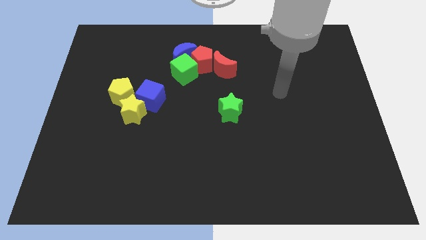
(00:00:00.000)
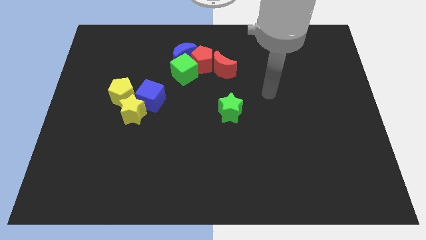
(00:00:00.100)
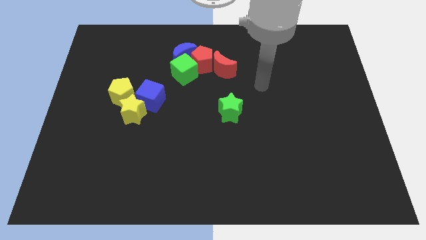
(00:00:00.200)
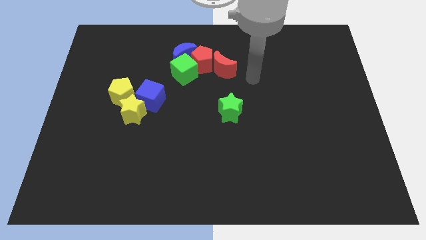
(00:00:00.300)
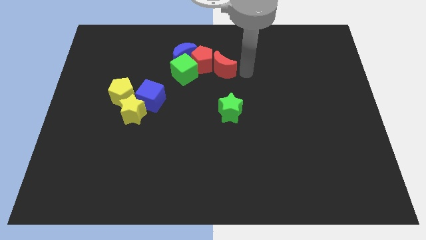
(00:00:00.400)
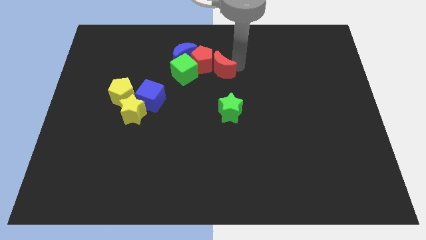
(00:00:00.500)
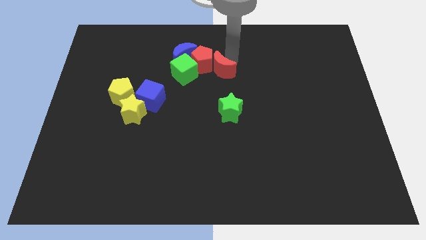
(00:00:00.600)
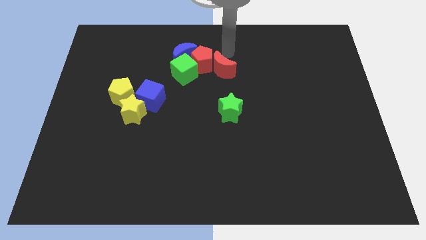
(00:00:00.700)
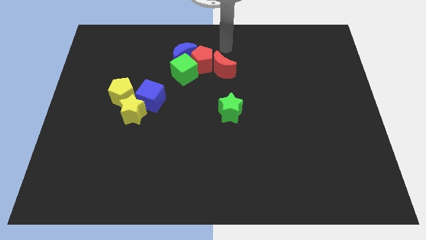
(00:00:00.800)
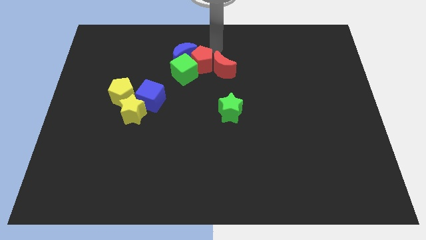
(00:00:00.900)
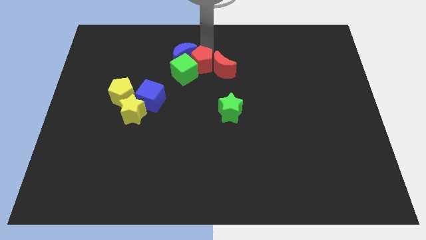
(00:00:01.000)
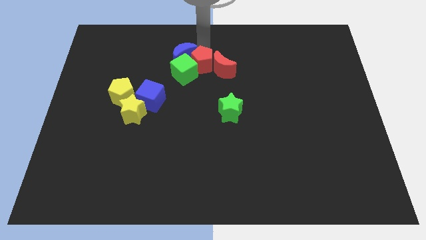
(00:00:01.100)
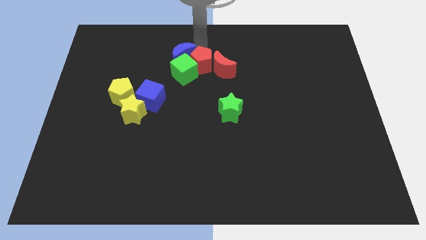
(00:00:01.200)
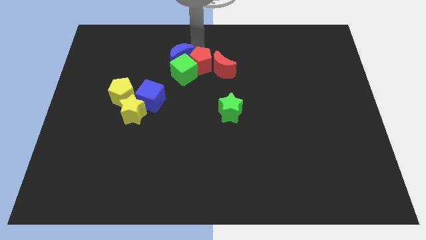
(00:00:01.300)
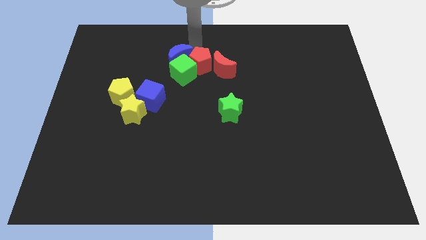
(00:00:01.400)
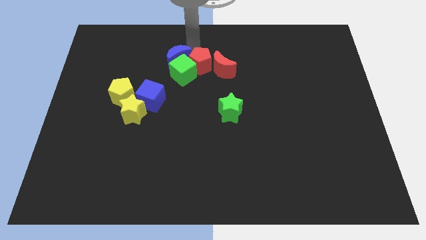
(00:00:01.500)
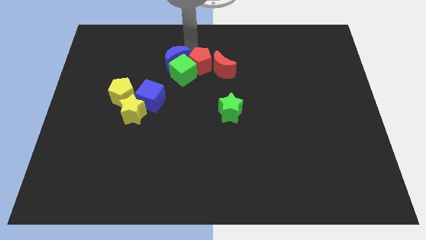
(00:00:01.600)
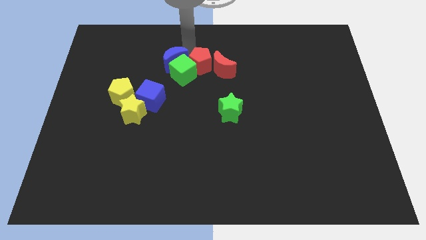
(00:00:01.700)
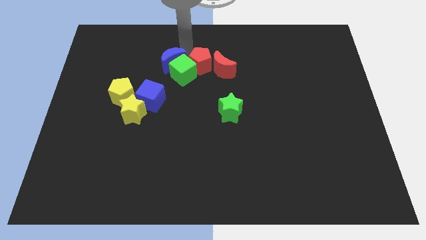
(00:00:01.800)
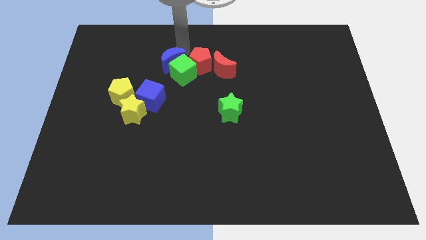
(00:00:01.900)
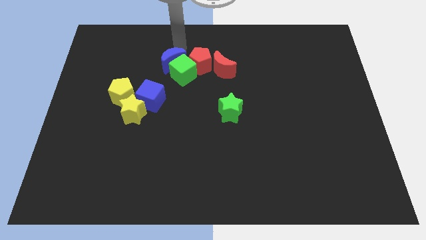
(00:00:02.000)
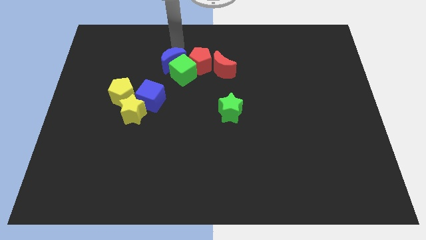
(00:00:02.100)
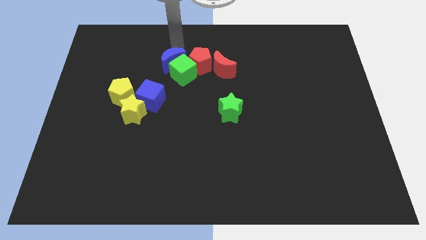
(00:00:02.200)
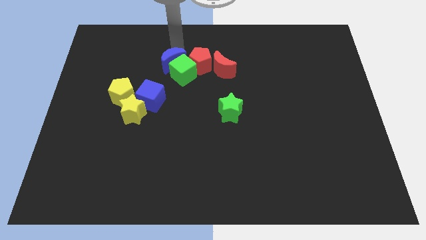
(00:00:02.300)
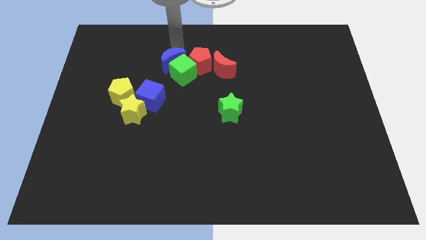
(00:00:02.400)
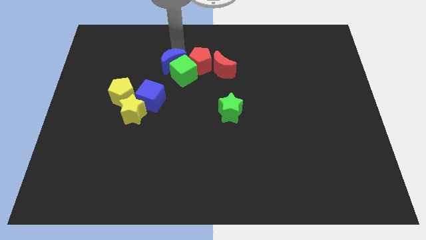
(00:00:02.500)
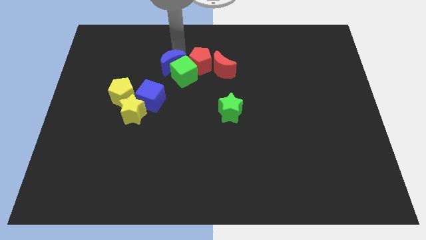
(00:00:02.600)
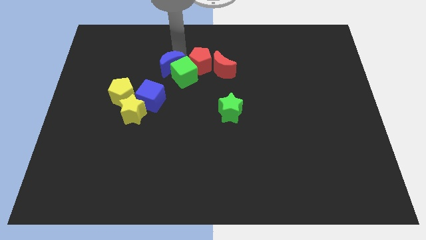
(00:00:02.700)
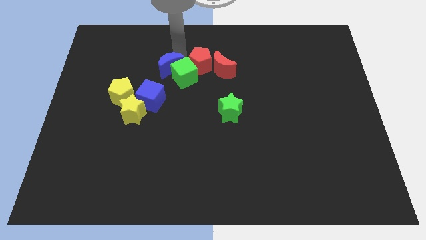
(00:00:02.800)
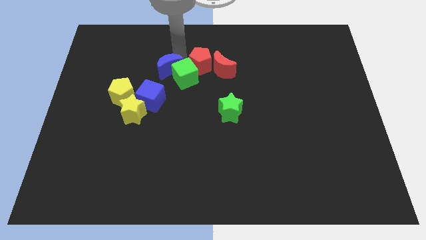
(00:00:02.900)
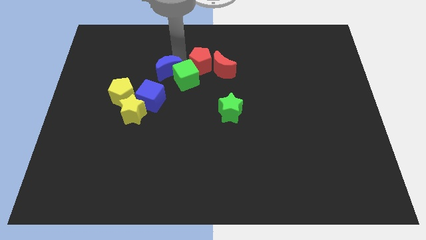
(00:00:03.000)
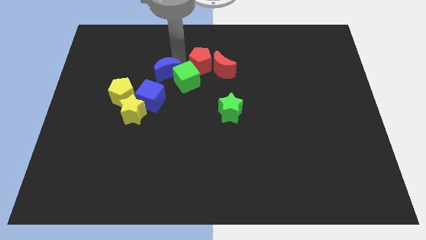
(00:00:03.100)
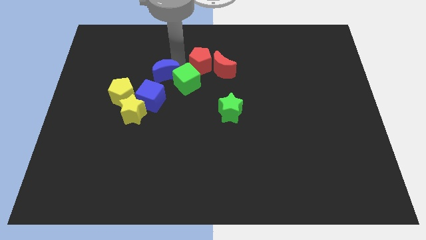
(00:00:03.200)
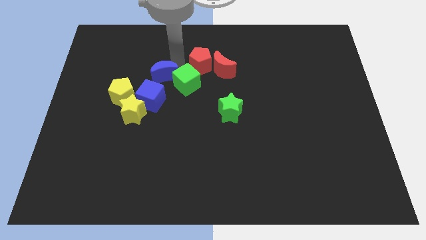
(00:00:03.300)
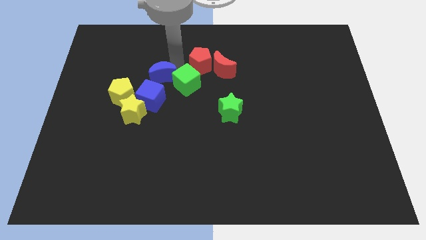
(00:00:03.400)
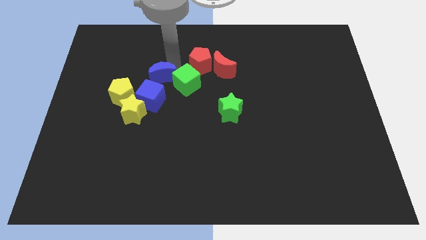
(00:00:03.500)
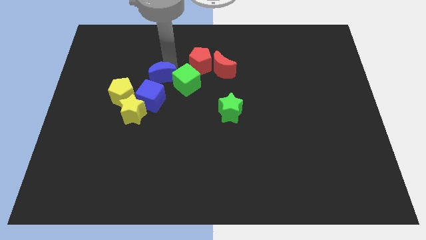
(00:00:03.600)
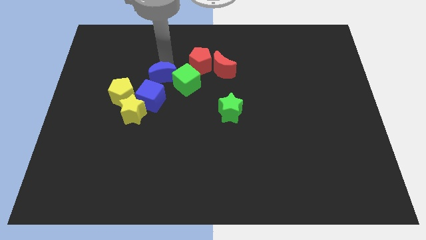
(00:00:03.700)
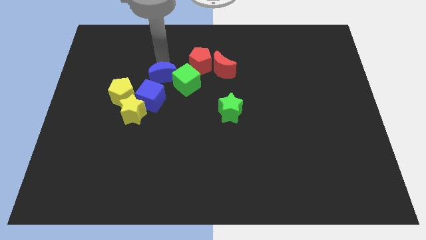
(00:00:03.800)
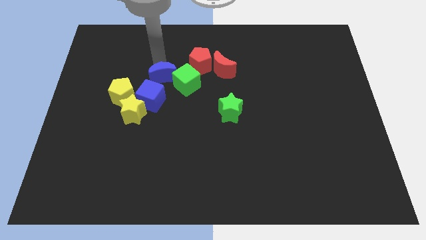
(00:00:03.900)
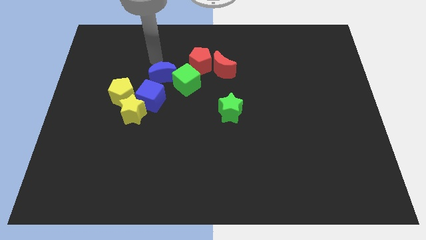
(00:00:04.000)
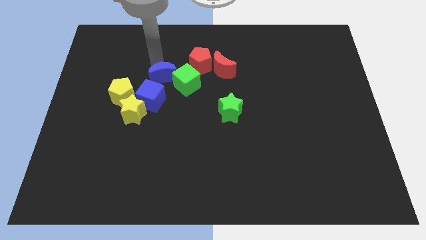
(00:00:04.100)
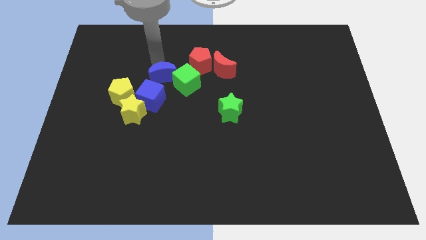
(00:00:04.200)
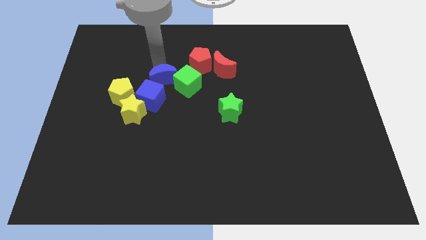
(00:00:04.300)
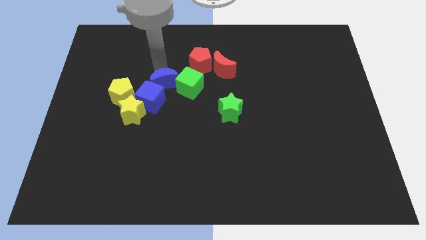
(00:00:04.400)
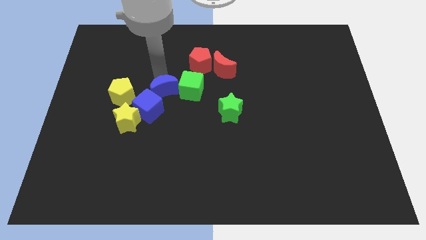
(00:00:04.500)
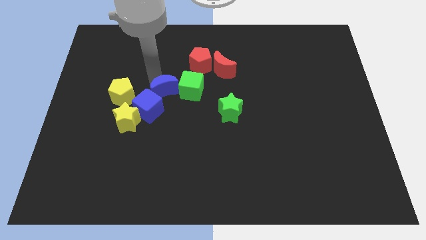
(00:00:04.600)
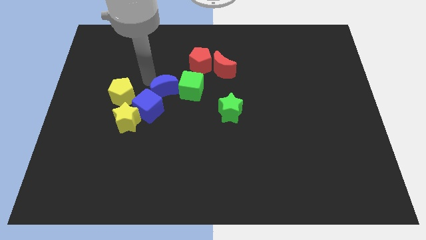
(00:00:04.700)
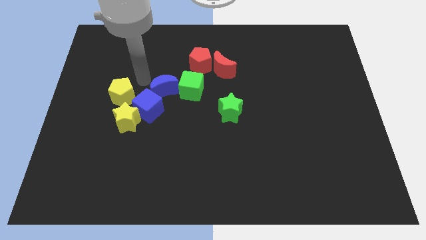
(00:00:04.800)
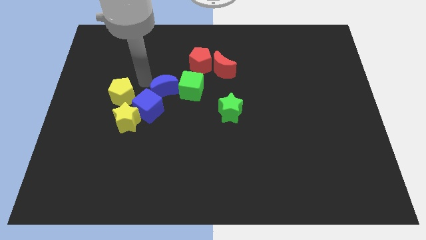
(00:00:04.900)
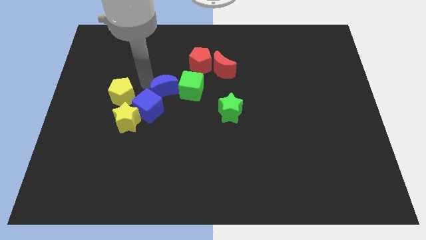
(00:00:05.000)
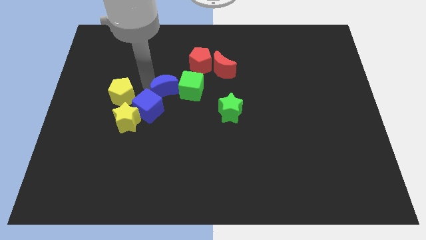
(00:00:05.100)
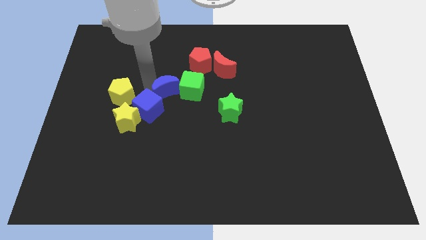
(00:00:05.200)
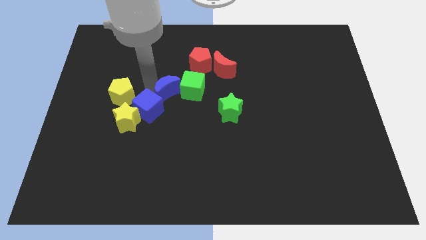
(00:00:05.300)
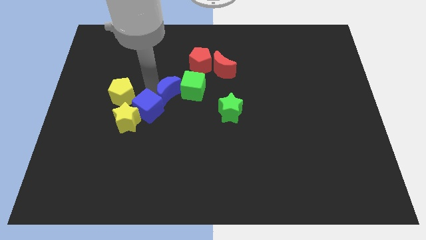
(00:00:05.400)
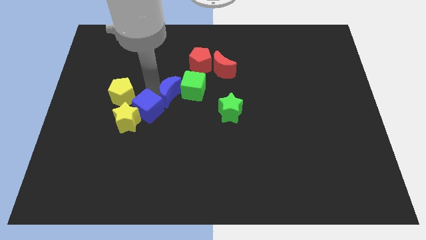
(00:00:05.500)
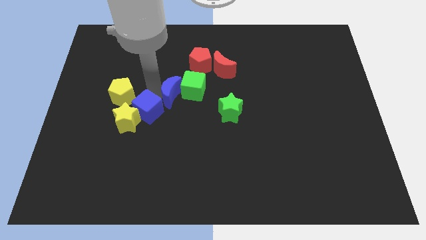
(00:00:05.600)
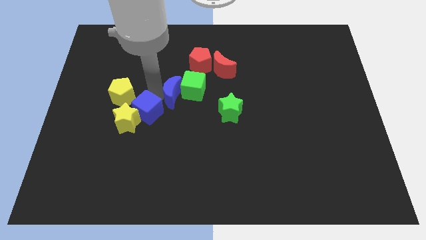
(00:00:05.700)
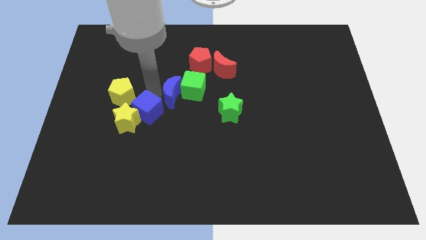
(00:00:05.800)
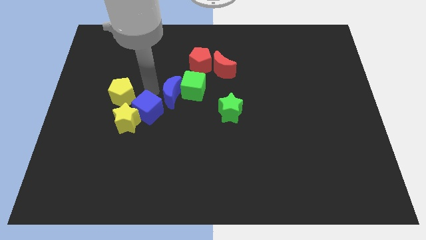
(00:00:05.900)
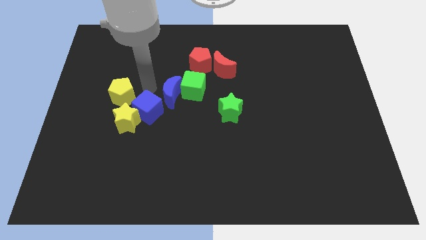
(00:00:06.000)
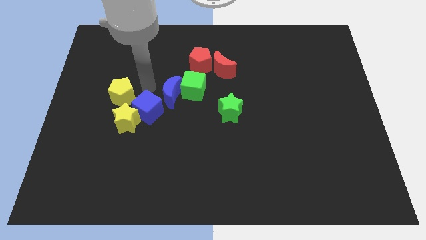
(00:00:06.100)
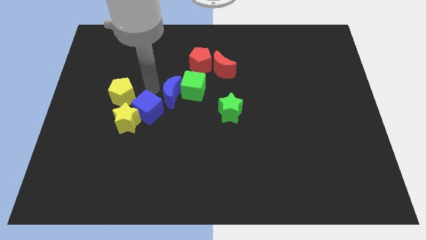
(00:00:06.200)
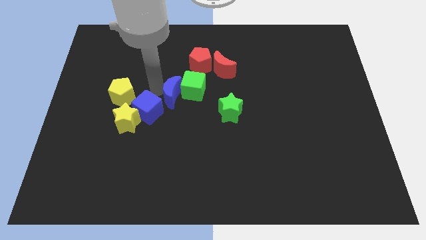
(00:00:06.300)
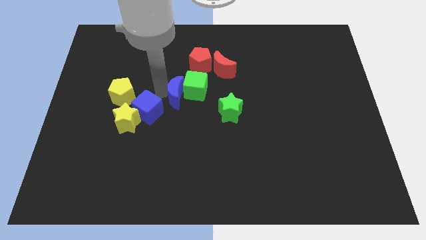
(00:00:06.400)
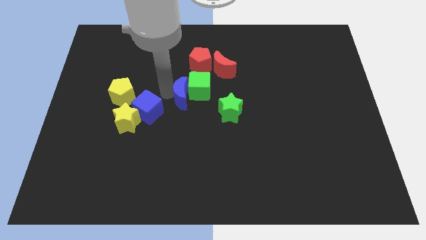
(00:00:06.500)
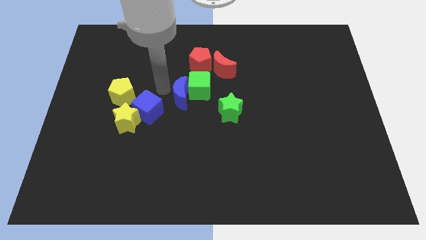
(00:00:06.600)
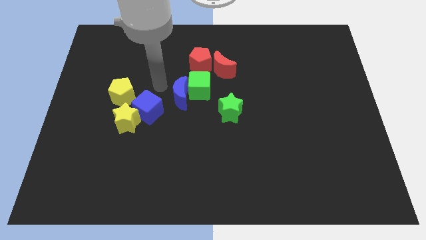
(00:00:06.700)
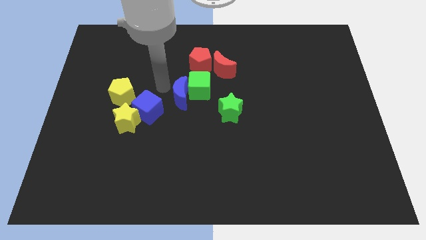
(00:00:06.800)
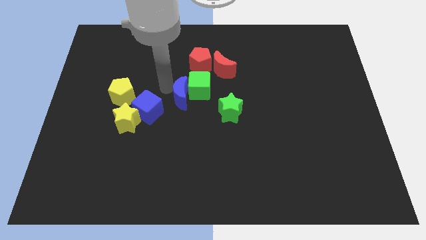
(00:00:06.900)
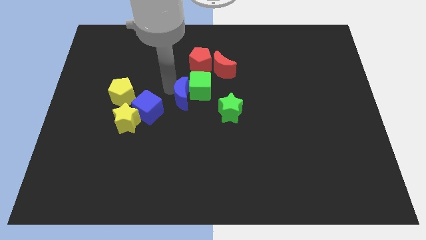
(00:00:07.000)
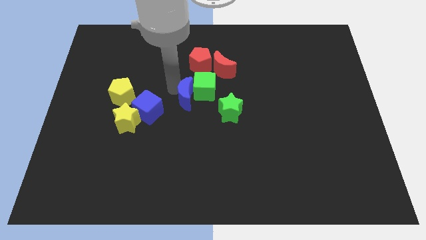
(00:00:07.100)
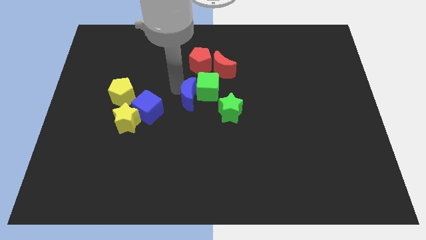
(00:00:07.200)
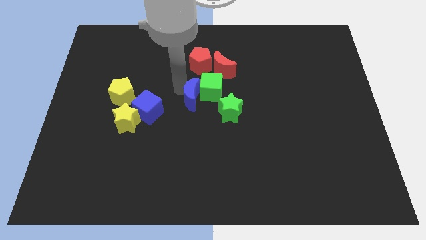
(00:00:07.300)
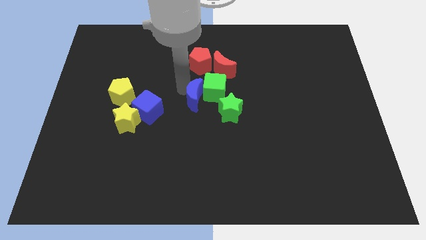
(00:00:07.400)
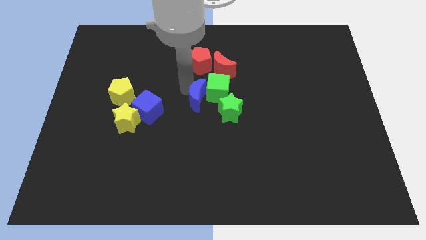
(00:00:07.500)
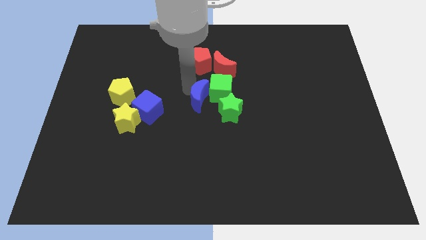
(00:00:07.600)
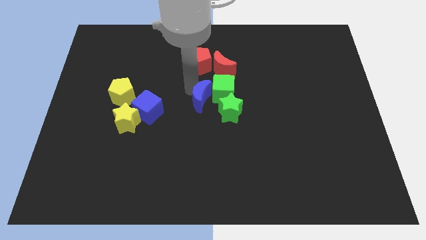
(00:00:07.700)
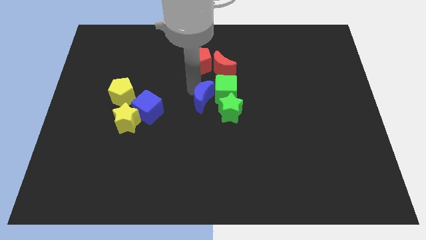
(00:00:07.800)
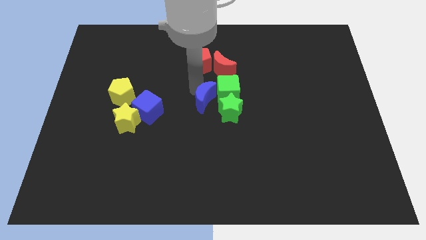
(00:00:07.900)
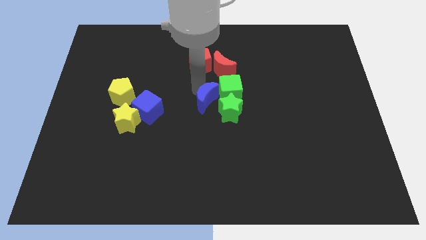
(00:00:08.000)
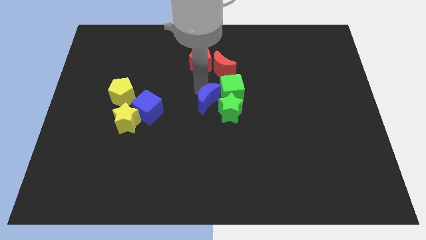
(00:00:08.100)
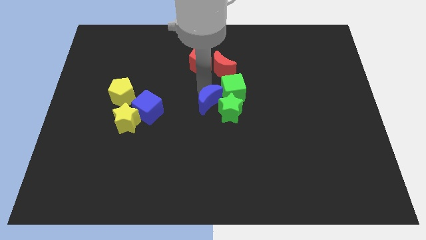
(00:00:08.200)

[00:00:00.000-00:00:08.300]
push the blue moon next to the green star
